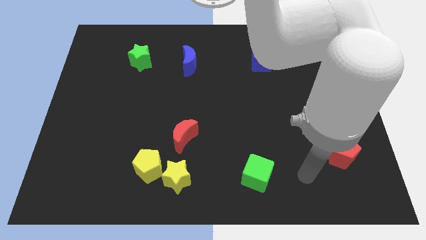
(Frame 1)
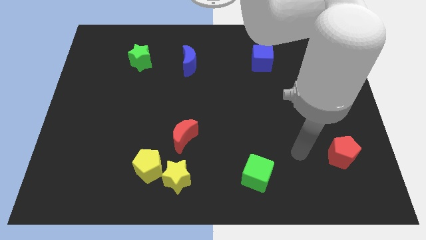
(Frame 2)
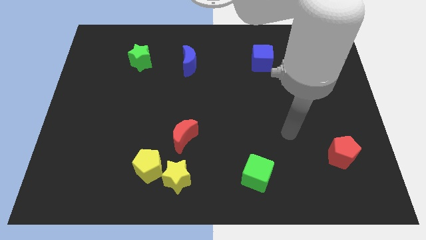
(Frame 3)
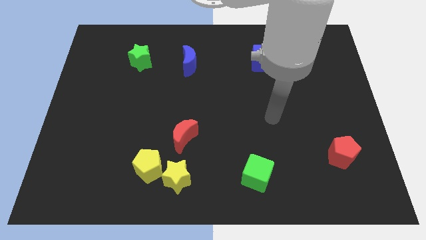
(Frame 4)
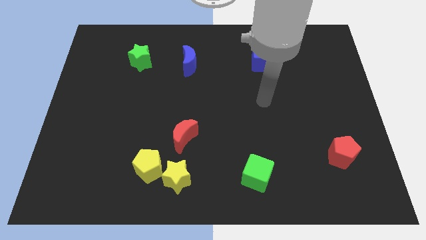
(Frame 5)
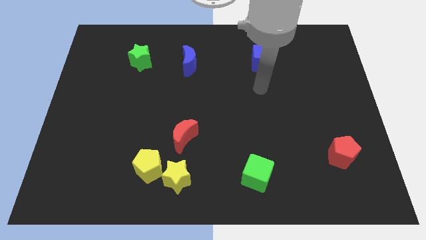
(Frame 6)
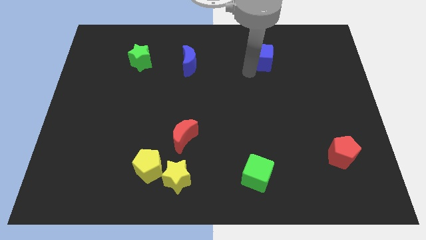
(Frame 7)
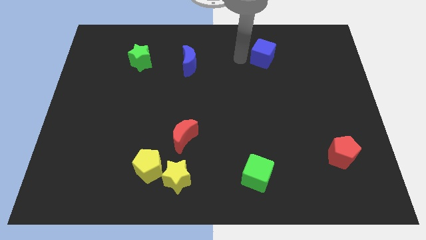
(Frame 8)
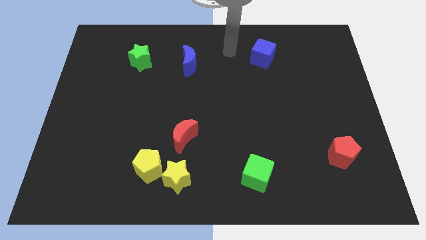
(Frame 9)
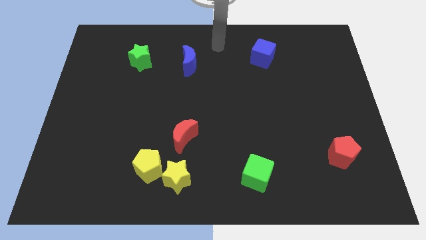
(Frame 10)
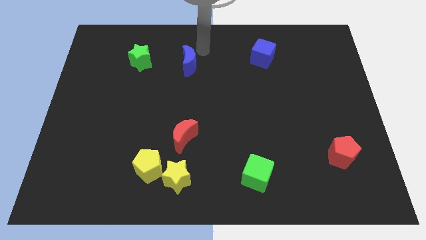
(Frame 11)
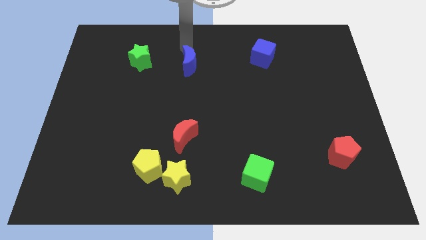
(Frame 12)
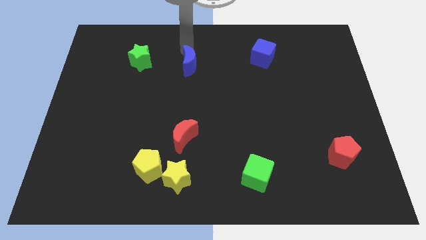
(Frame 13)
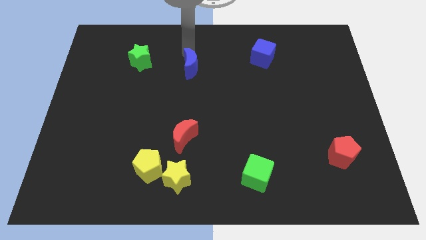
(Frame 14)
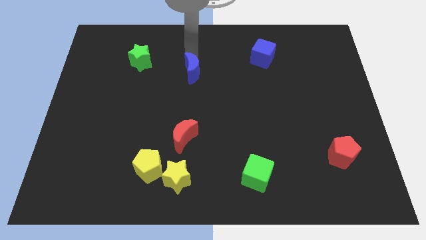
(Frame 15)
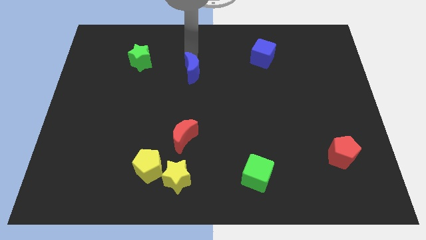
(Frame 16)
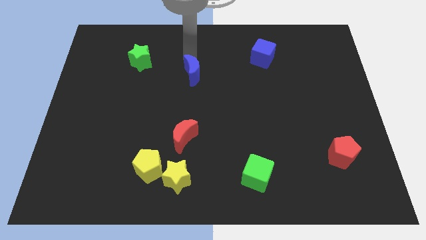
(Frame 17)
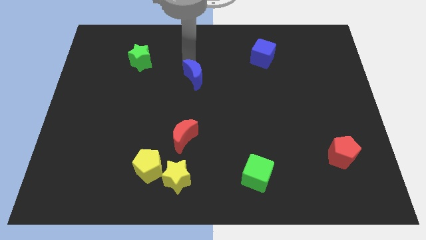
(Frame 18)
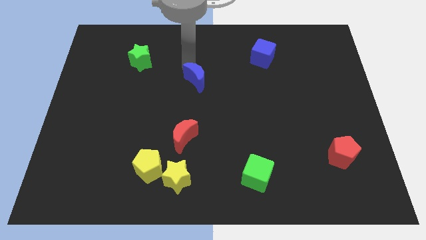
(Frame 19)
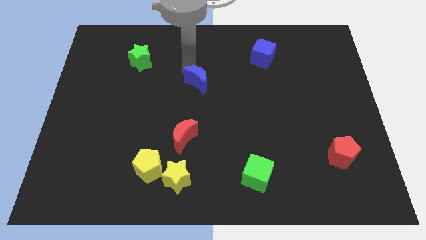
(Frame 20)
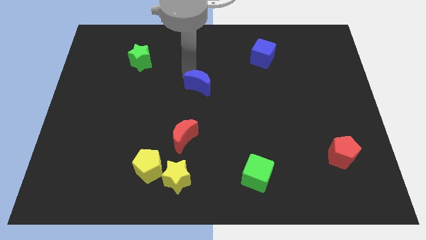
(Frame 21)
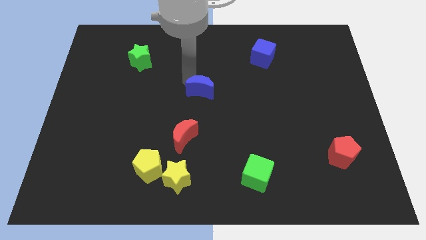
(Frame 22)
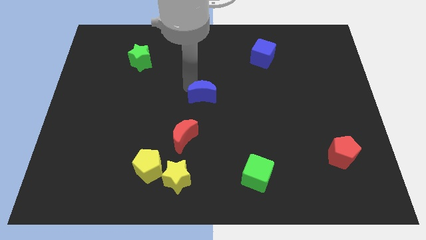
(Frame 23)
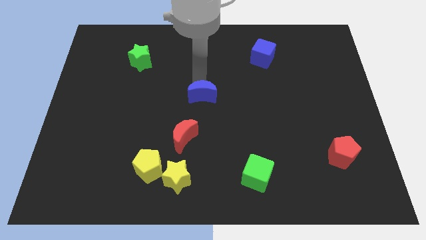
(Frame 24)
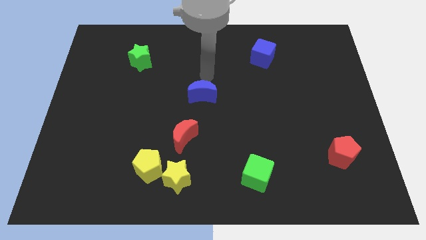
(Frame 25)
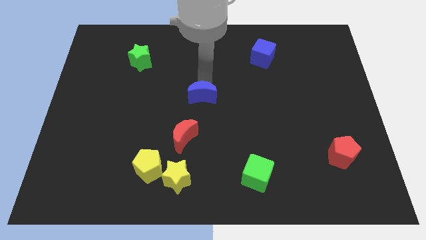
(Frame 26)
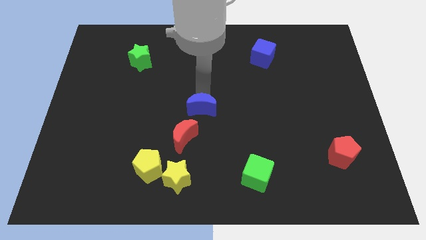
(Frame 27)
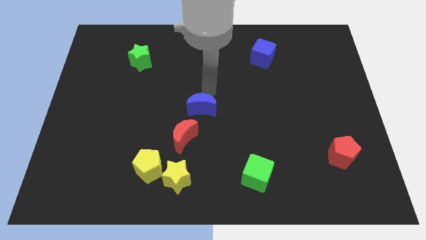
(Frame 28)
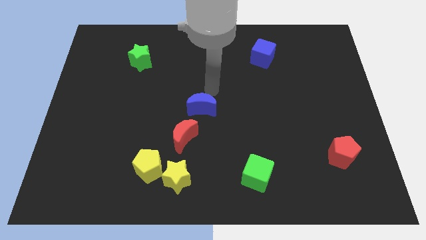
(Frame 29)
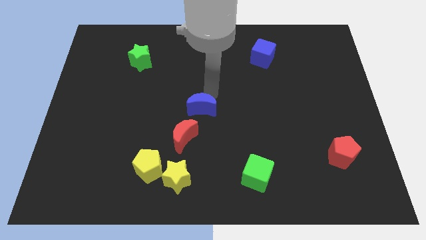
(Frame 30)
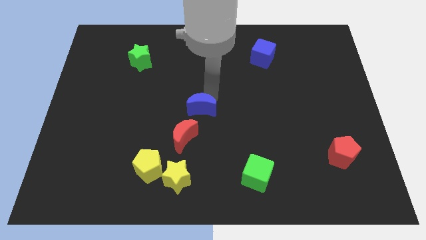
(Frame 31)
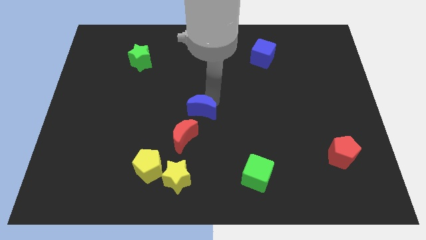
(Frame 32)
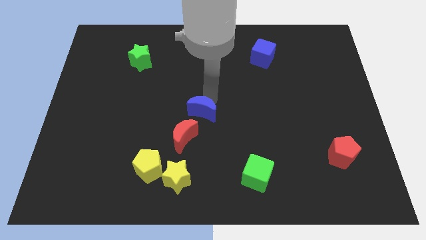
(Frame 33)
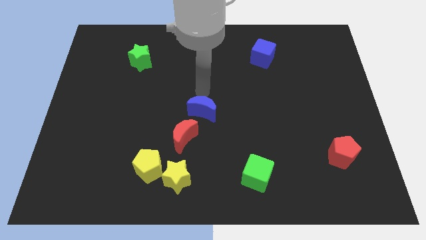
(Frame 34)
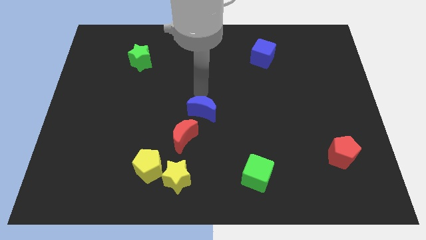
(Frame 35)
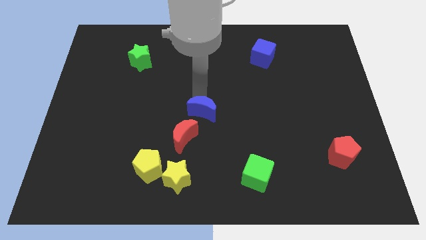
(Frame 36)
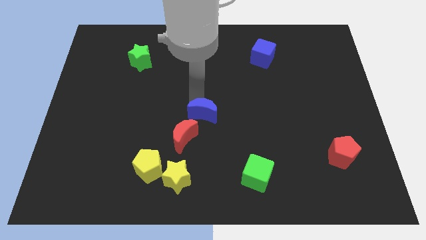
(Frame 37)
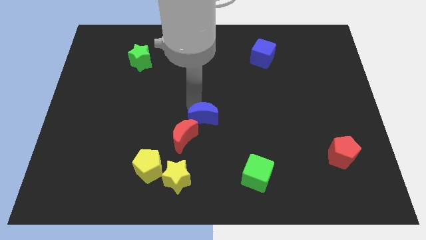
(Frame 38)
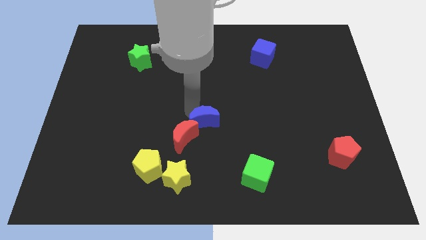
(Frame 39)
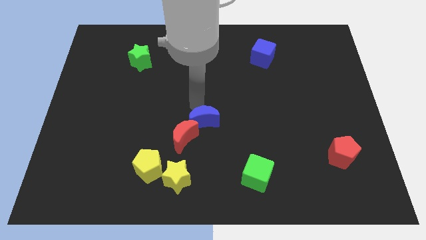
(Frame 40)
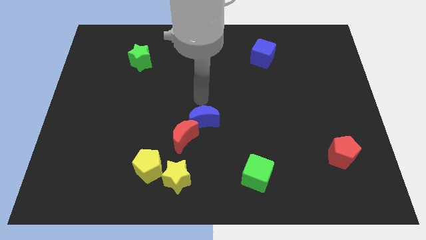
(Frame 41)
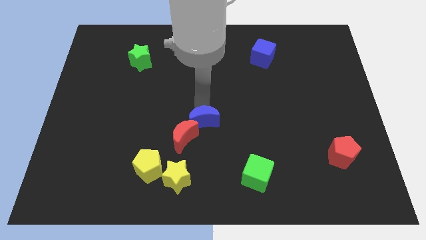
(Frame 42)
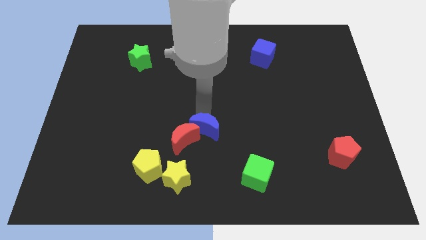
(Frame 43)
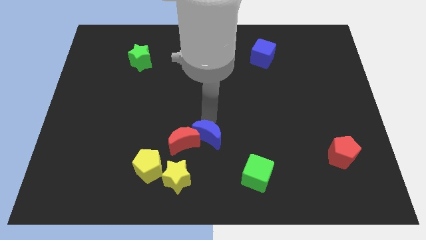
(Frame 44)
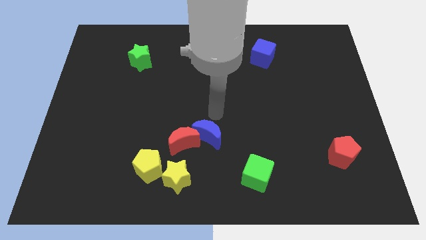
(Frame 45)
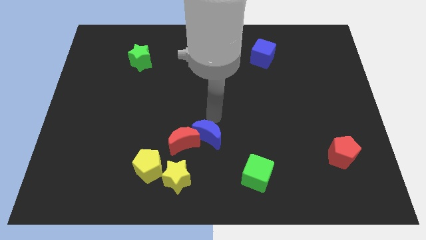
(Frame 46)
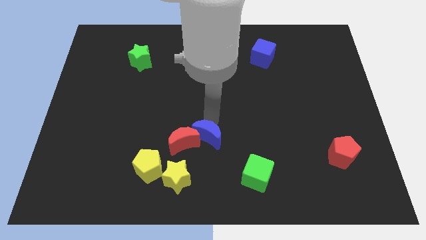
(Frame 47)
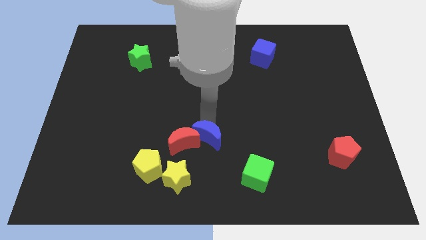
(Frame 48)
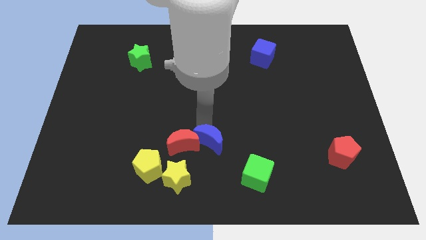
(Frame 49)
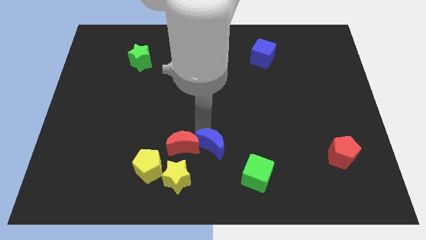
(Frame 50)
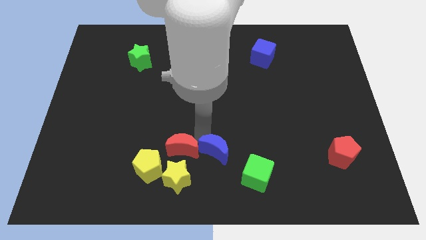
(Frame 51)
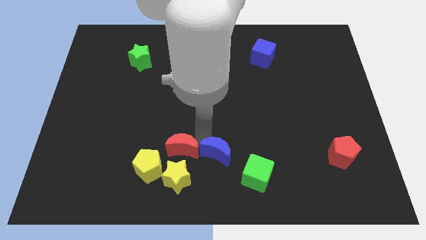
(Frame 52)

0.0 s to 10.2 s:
put the blue moon to the bottom side
